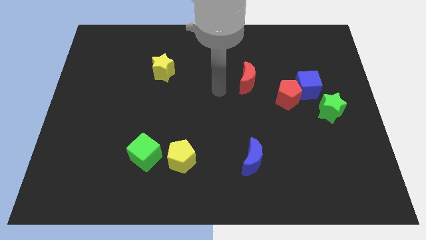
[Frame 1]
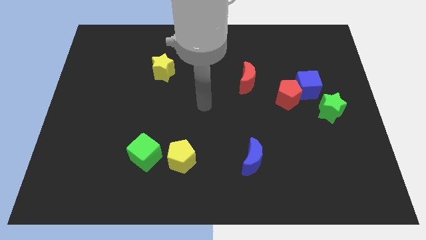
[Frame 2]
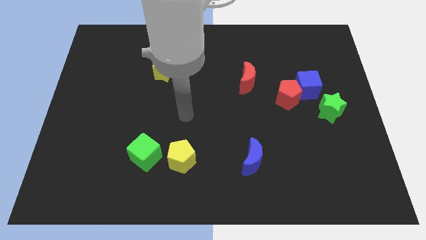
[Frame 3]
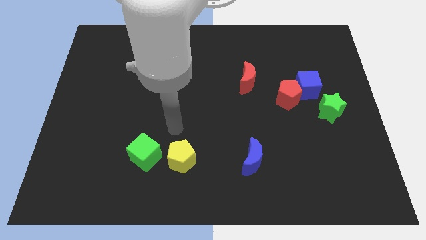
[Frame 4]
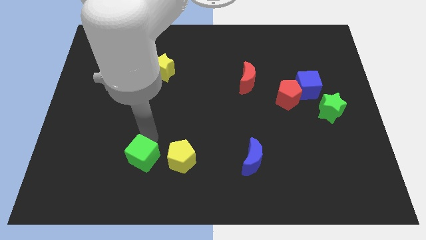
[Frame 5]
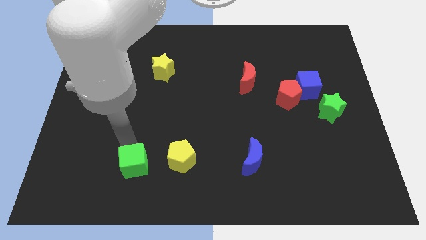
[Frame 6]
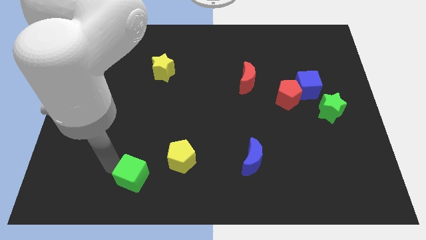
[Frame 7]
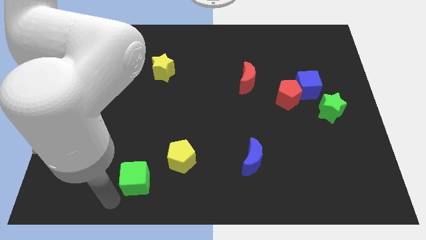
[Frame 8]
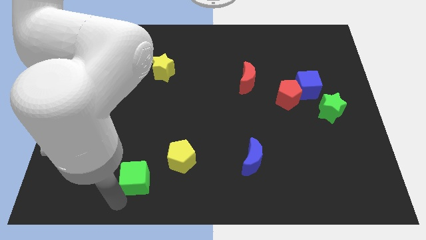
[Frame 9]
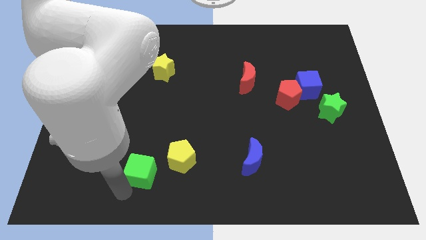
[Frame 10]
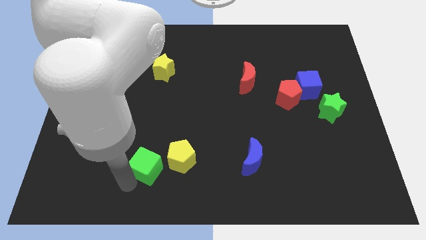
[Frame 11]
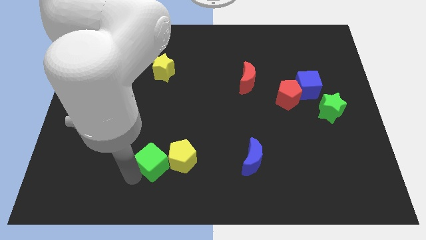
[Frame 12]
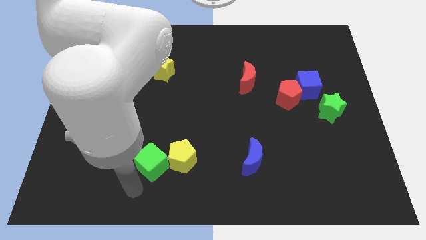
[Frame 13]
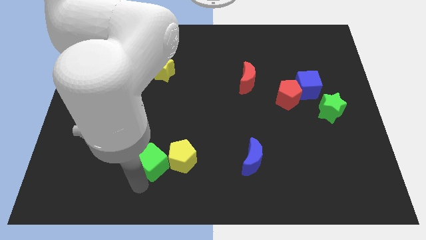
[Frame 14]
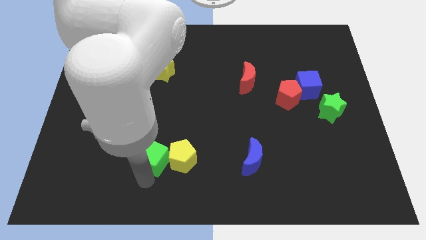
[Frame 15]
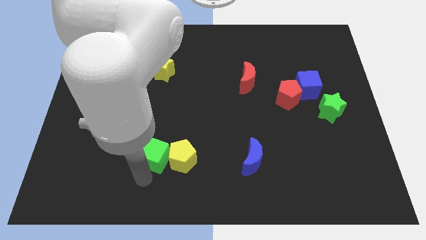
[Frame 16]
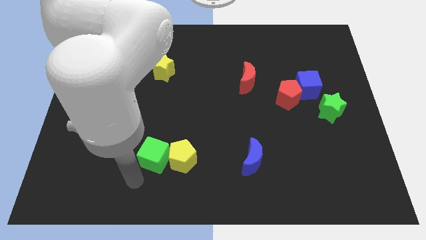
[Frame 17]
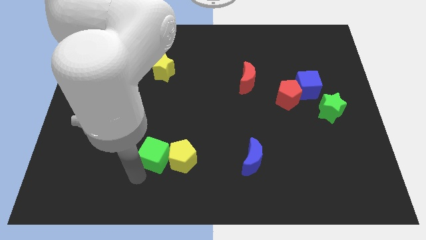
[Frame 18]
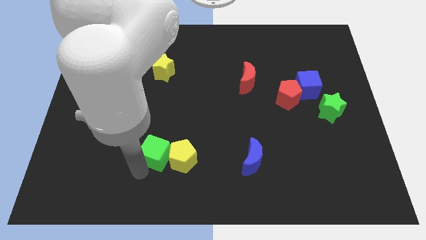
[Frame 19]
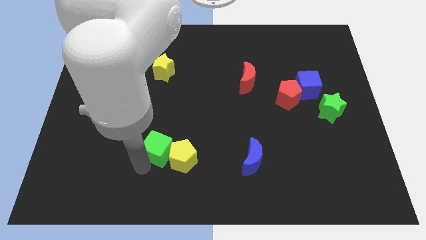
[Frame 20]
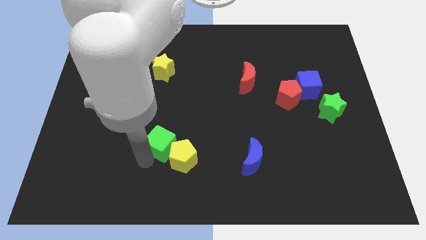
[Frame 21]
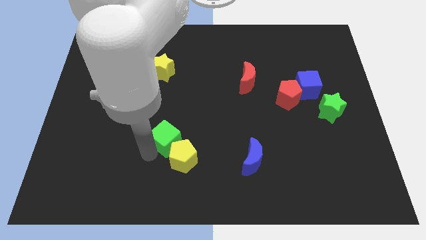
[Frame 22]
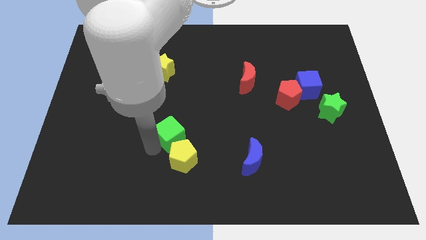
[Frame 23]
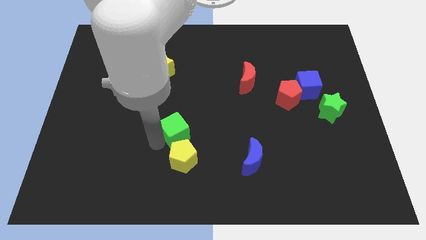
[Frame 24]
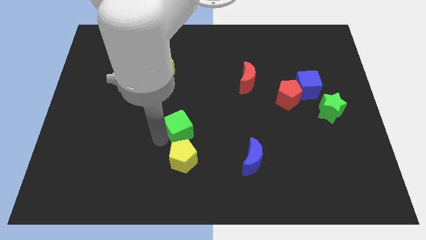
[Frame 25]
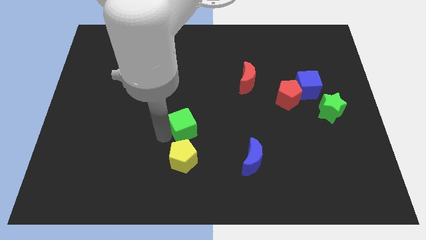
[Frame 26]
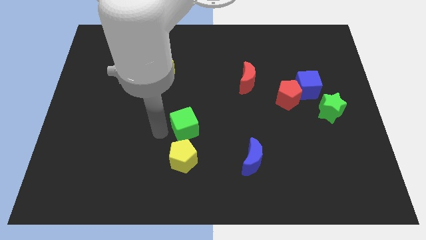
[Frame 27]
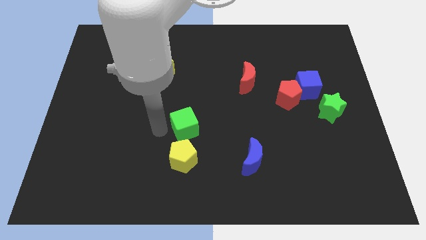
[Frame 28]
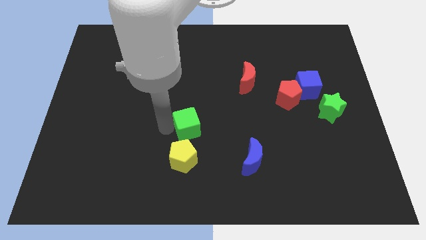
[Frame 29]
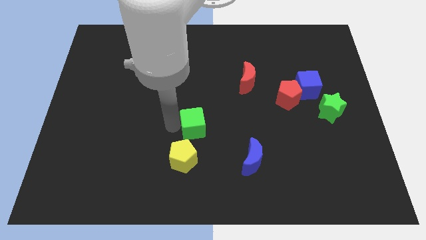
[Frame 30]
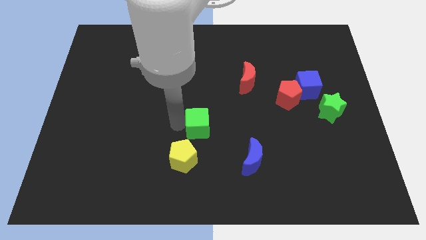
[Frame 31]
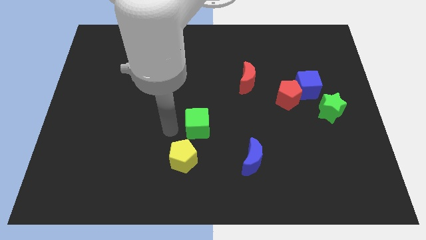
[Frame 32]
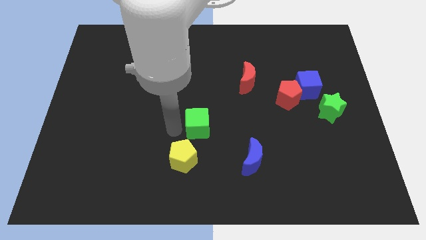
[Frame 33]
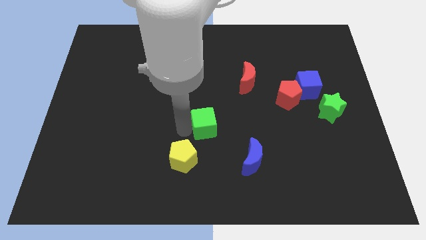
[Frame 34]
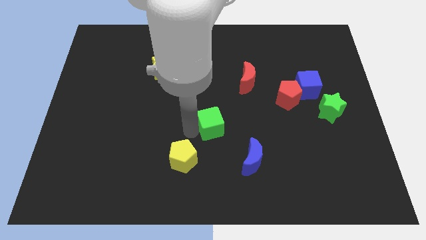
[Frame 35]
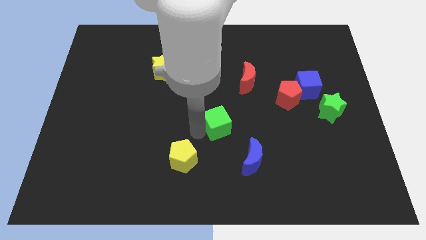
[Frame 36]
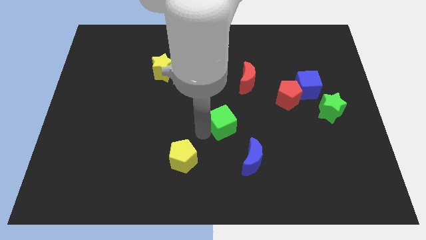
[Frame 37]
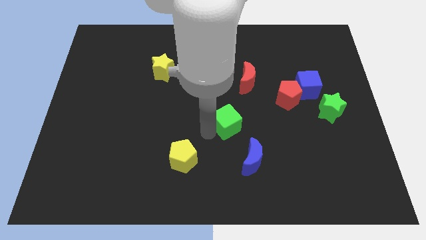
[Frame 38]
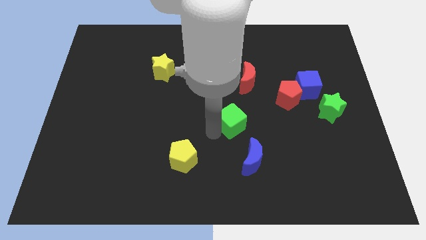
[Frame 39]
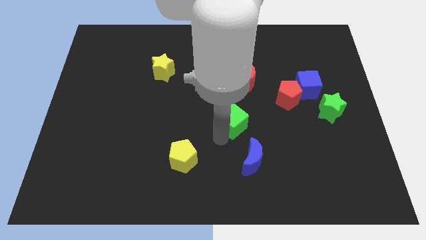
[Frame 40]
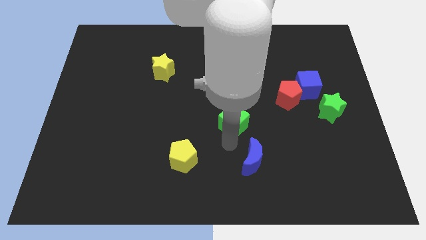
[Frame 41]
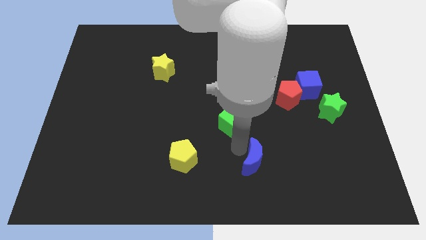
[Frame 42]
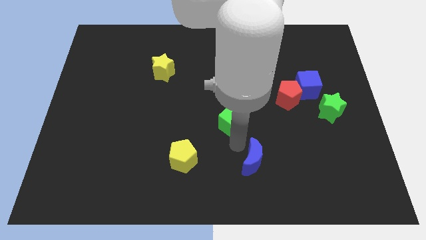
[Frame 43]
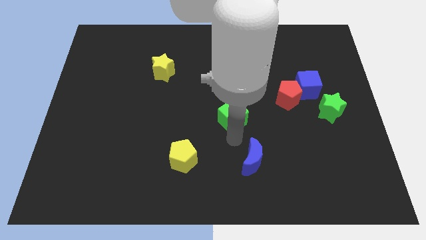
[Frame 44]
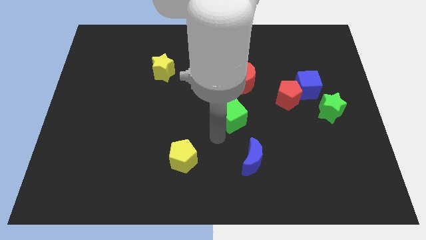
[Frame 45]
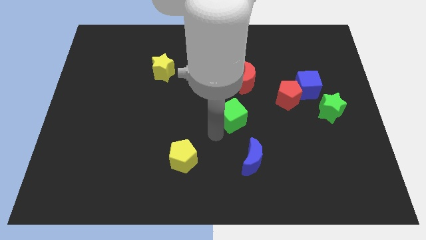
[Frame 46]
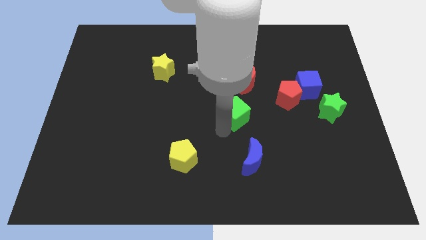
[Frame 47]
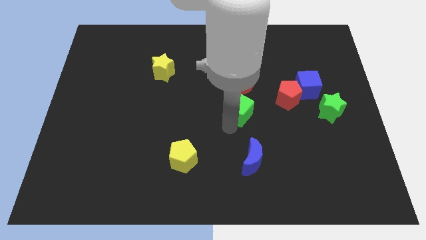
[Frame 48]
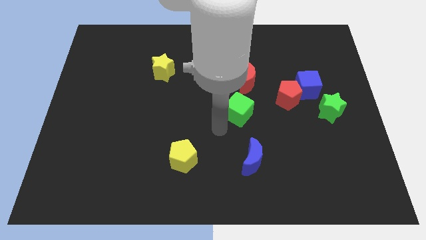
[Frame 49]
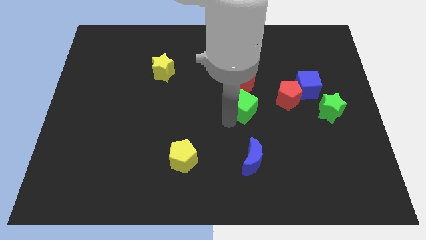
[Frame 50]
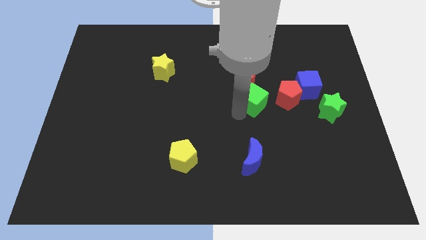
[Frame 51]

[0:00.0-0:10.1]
put the green cube diagonally down and to the right of the red moon

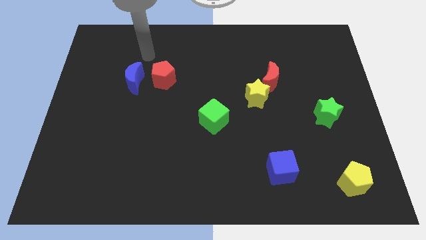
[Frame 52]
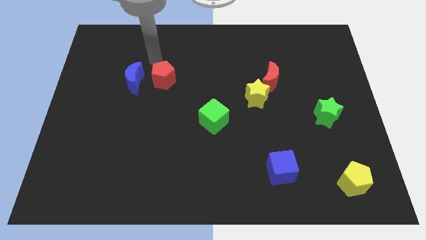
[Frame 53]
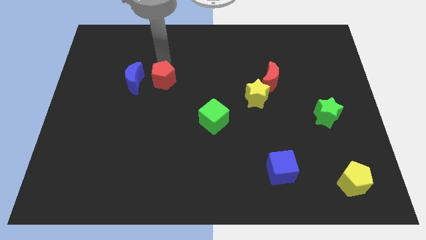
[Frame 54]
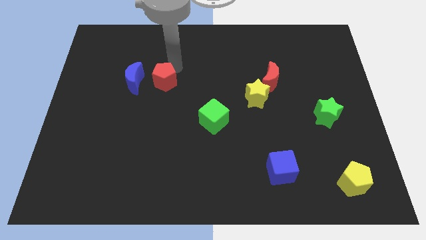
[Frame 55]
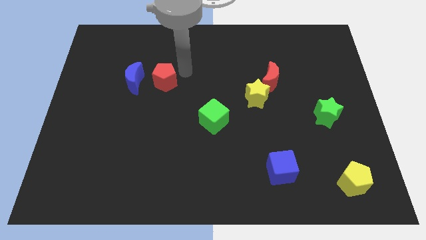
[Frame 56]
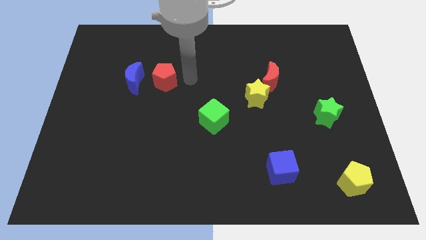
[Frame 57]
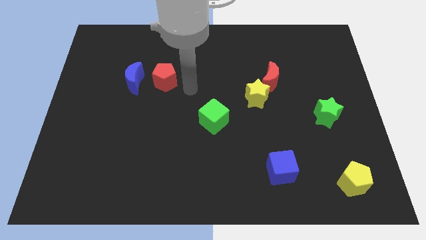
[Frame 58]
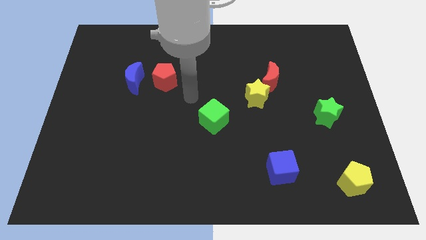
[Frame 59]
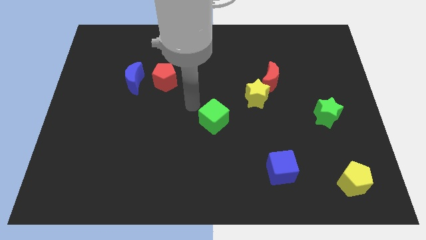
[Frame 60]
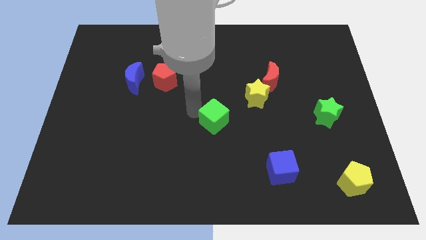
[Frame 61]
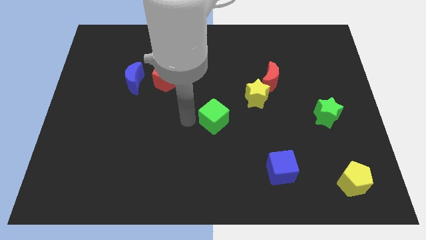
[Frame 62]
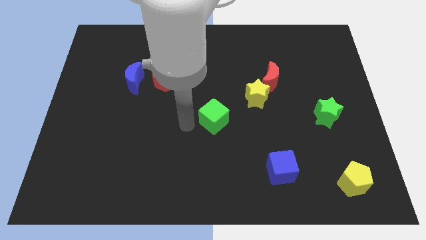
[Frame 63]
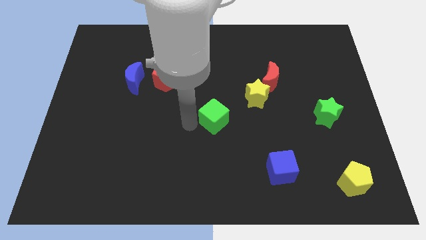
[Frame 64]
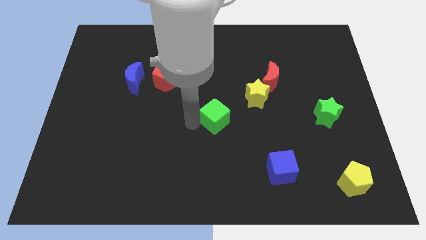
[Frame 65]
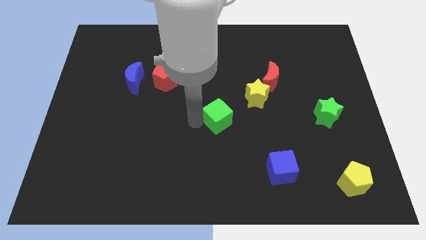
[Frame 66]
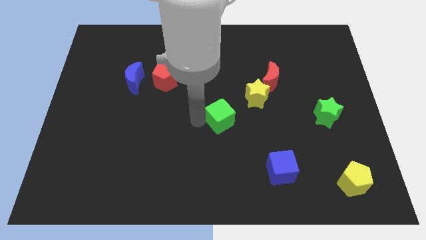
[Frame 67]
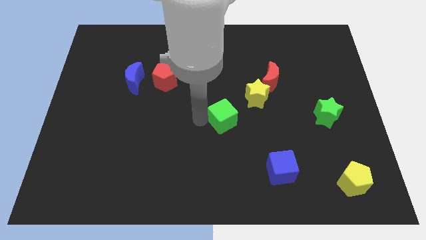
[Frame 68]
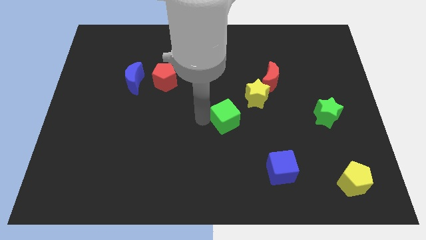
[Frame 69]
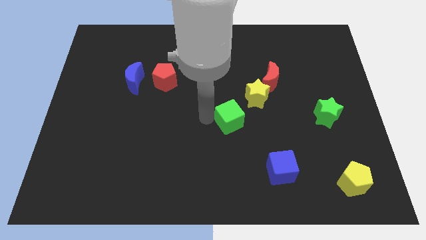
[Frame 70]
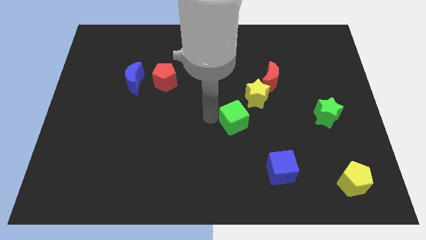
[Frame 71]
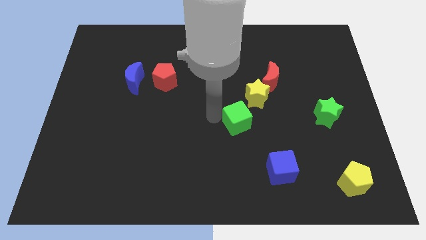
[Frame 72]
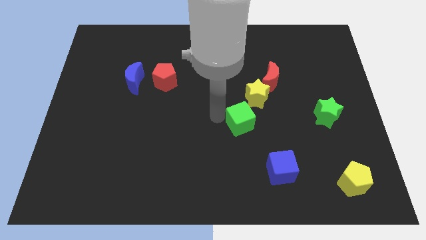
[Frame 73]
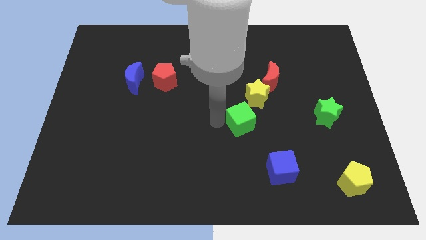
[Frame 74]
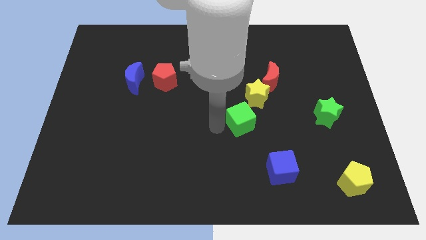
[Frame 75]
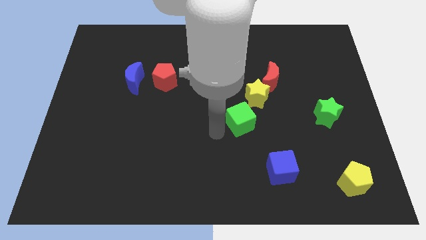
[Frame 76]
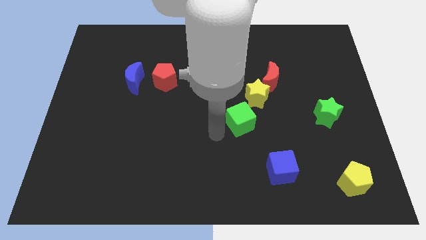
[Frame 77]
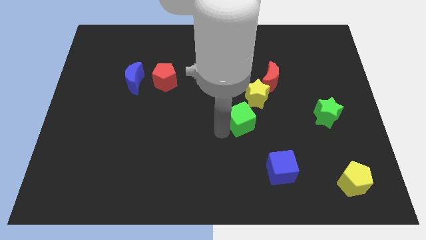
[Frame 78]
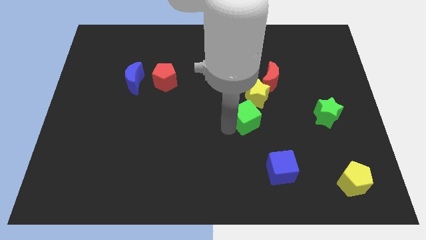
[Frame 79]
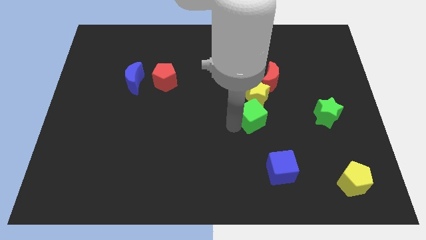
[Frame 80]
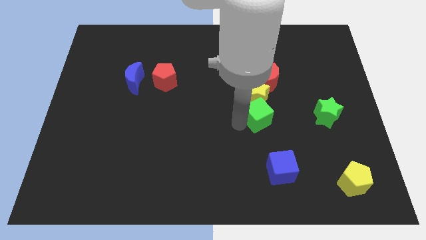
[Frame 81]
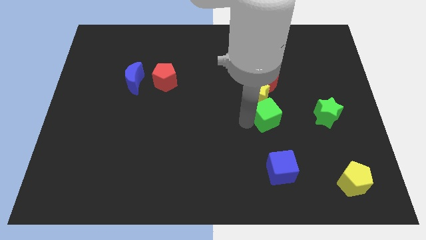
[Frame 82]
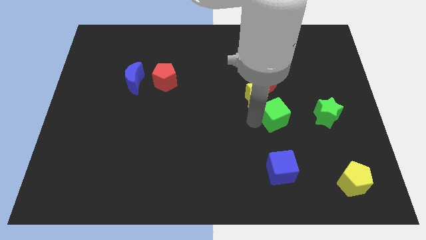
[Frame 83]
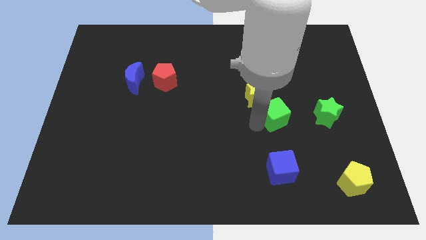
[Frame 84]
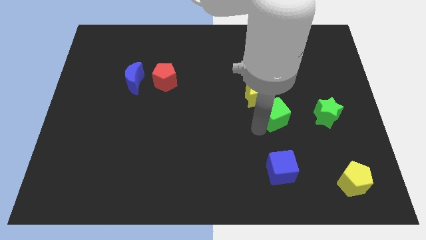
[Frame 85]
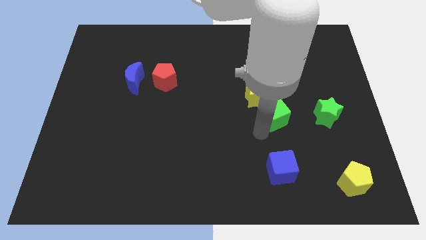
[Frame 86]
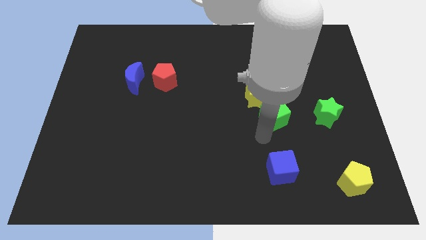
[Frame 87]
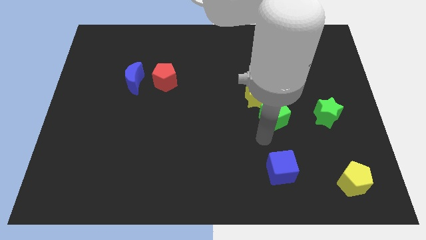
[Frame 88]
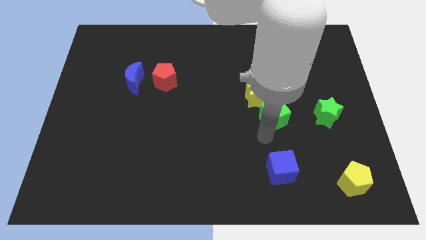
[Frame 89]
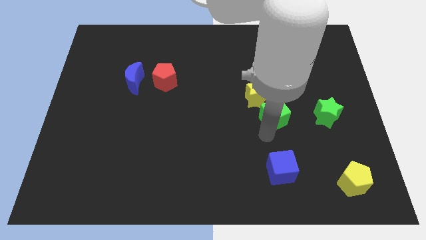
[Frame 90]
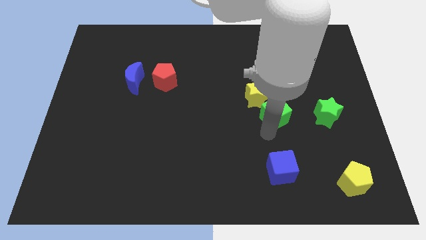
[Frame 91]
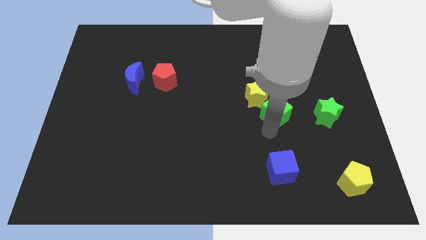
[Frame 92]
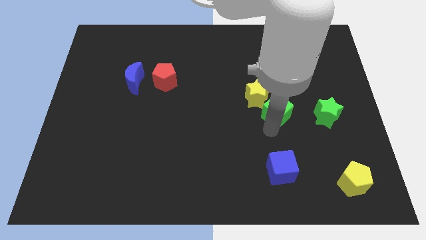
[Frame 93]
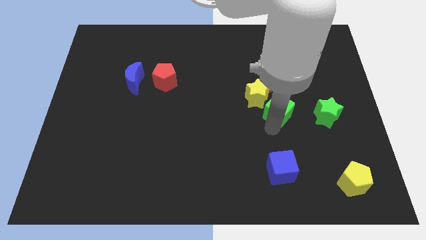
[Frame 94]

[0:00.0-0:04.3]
push the green cube to the right side of the yellow star
